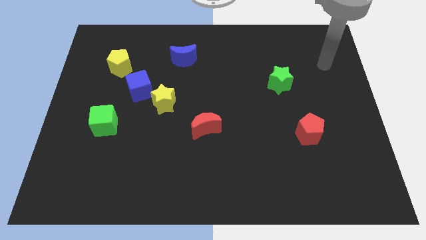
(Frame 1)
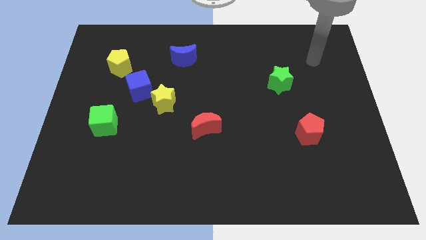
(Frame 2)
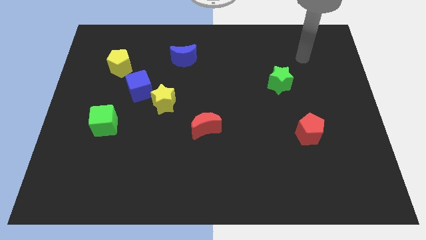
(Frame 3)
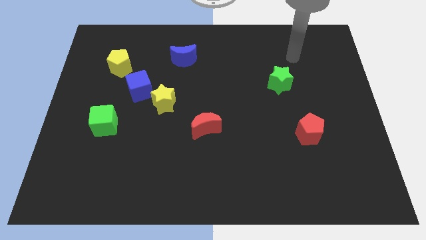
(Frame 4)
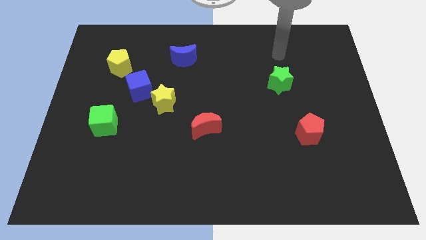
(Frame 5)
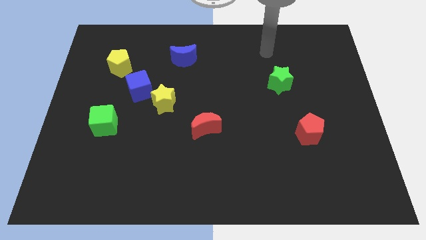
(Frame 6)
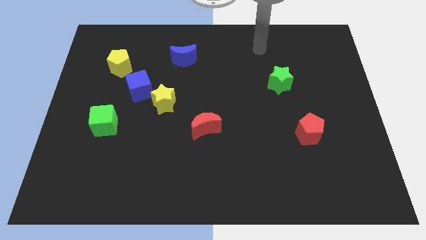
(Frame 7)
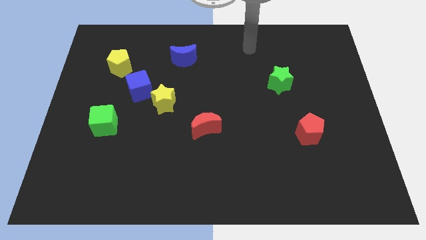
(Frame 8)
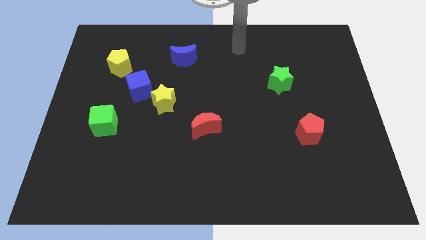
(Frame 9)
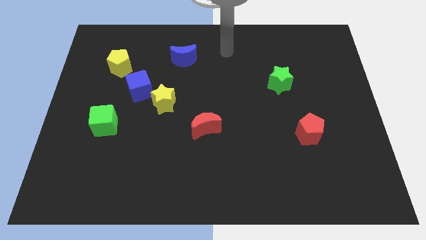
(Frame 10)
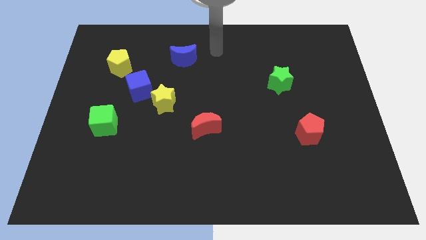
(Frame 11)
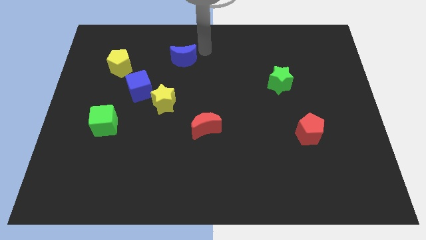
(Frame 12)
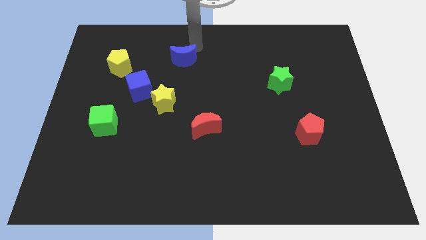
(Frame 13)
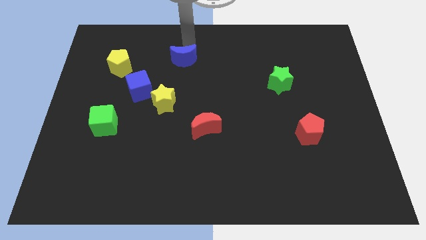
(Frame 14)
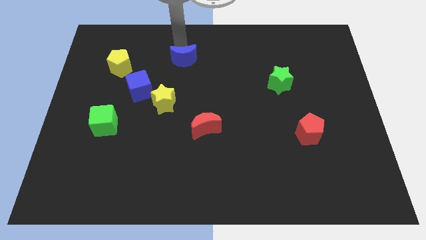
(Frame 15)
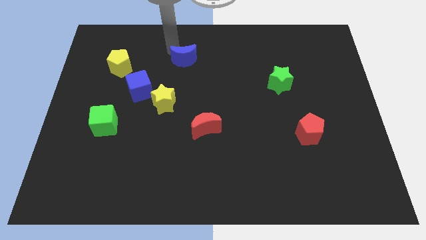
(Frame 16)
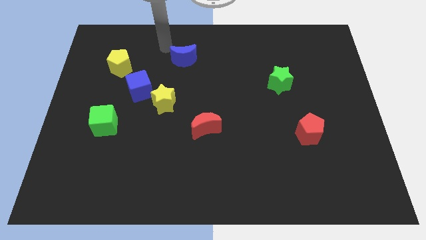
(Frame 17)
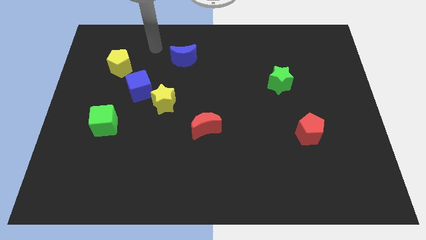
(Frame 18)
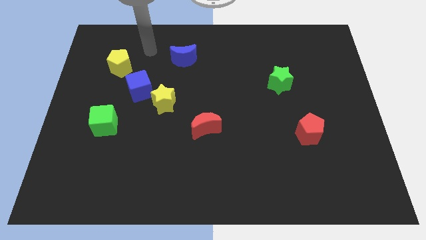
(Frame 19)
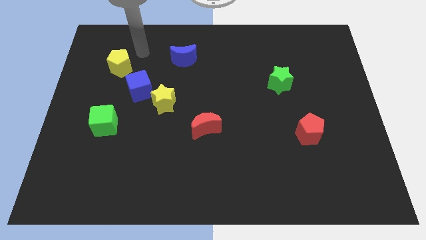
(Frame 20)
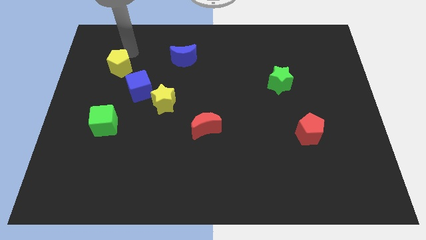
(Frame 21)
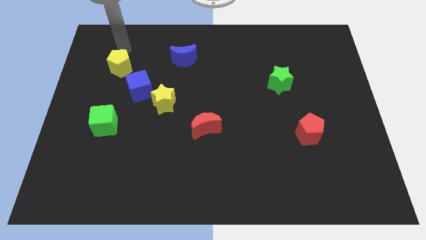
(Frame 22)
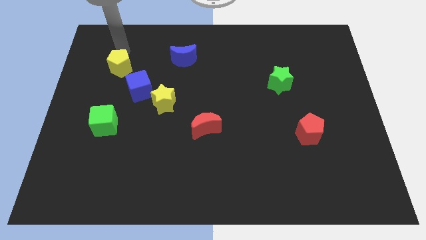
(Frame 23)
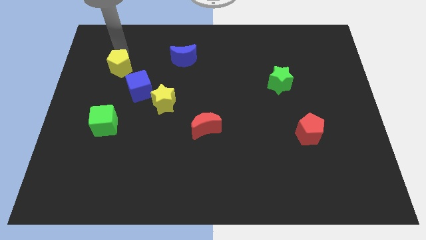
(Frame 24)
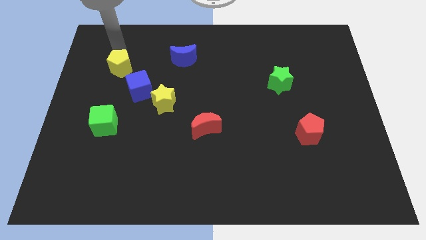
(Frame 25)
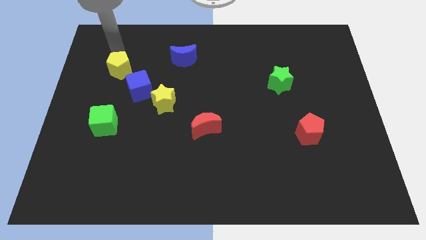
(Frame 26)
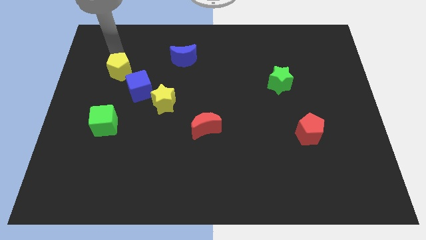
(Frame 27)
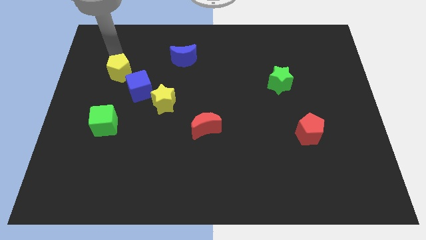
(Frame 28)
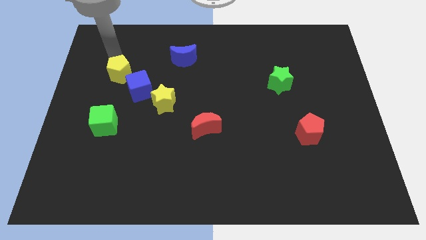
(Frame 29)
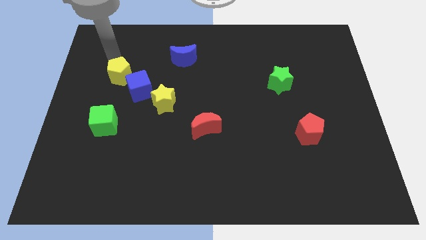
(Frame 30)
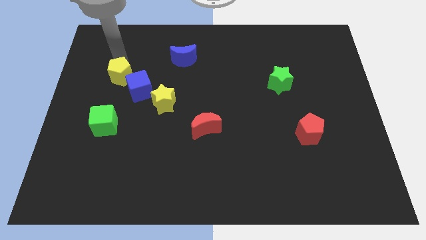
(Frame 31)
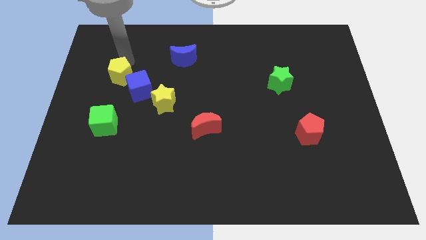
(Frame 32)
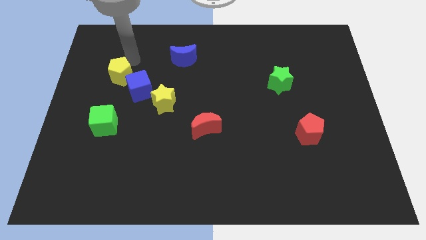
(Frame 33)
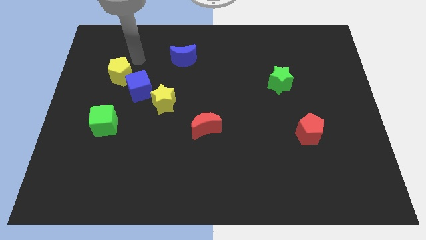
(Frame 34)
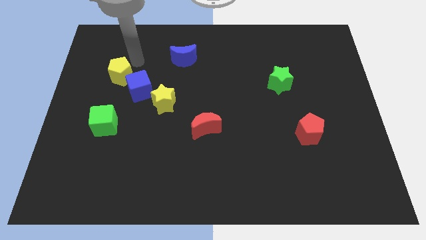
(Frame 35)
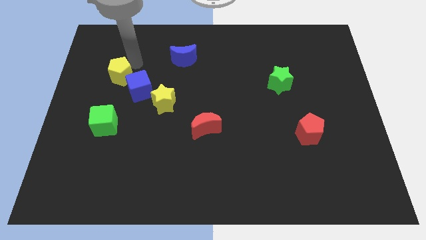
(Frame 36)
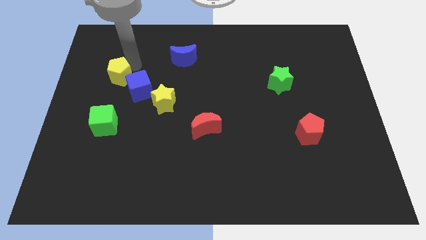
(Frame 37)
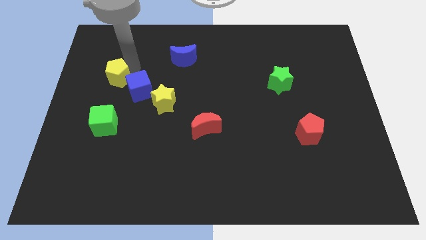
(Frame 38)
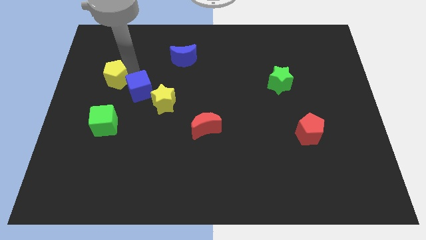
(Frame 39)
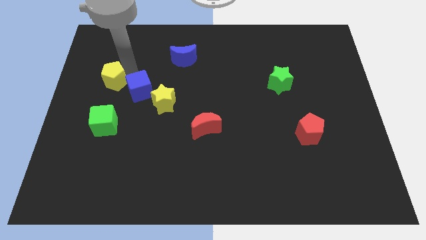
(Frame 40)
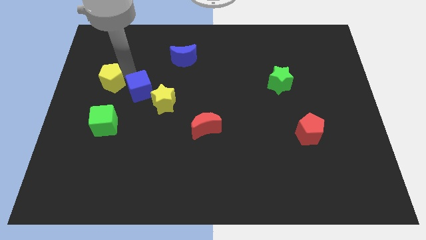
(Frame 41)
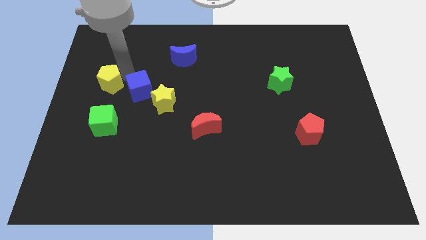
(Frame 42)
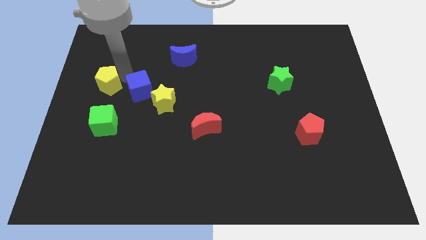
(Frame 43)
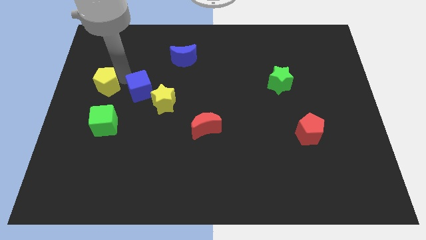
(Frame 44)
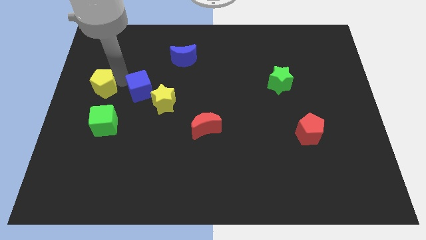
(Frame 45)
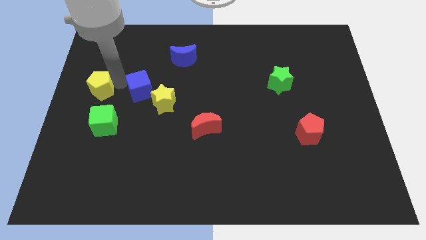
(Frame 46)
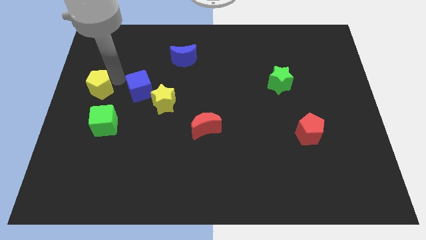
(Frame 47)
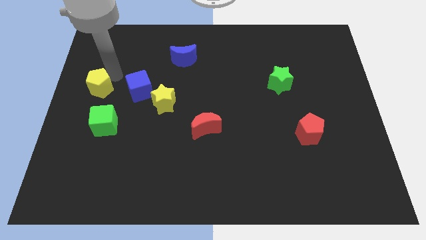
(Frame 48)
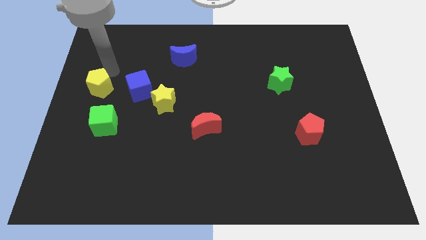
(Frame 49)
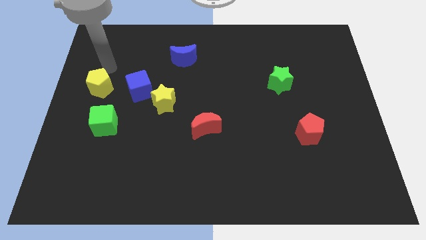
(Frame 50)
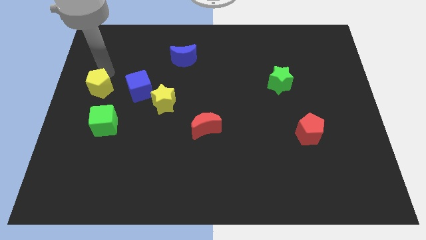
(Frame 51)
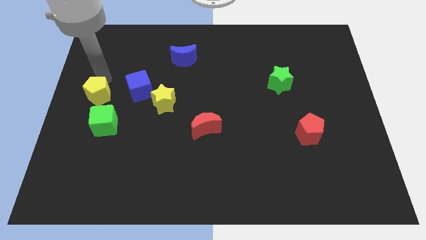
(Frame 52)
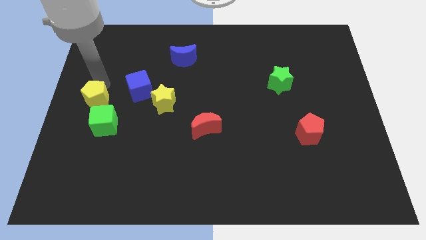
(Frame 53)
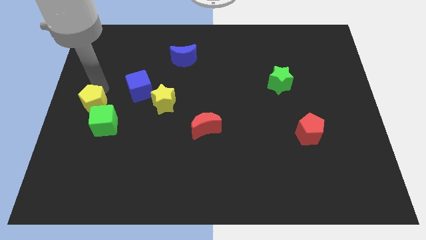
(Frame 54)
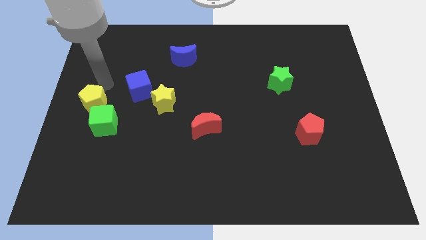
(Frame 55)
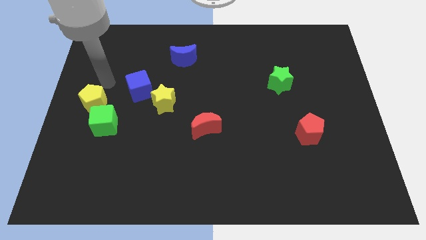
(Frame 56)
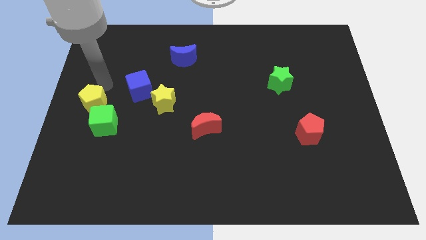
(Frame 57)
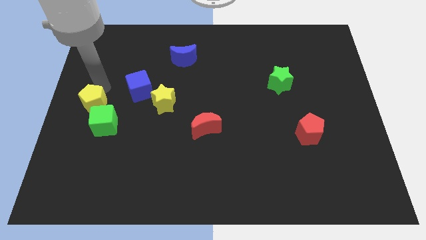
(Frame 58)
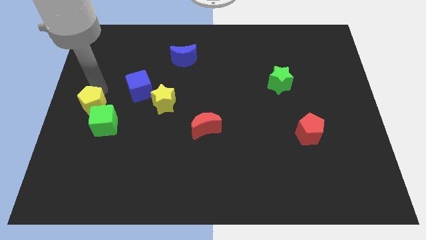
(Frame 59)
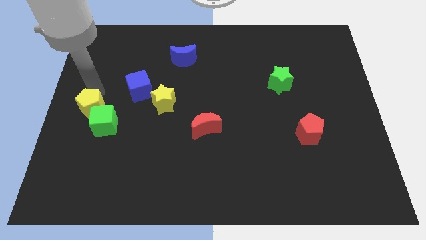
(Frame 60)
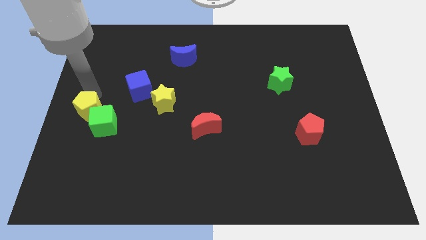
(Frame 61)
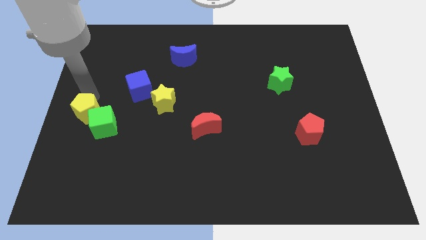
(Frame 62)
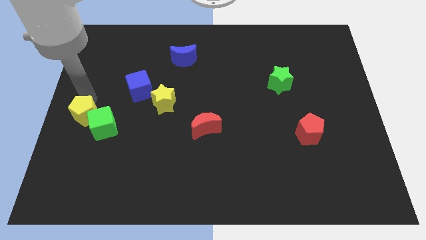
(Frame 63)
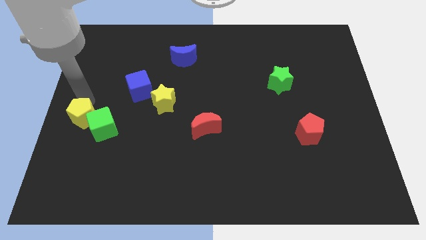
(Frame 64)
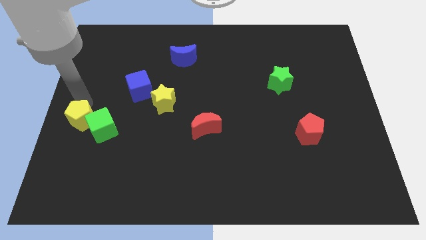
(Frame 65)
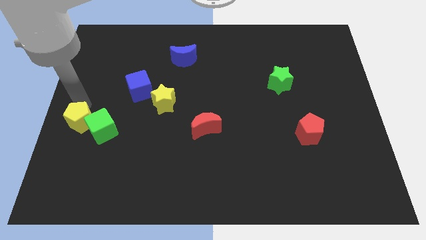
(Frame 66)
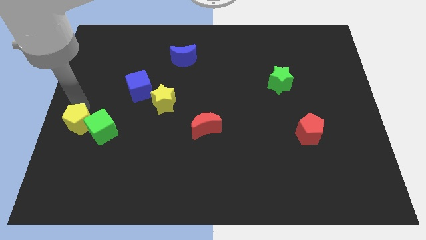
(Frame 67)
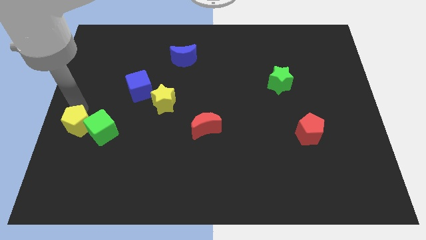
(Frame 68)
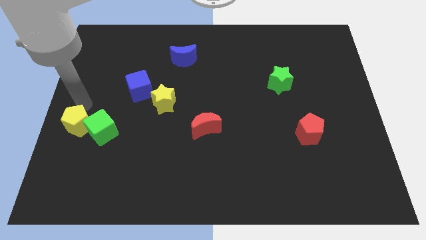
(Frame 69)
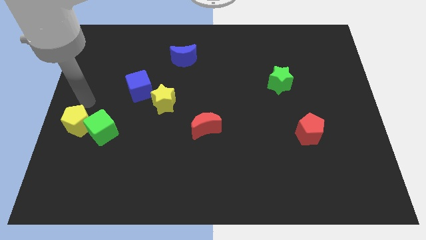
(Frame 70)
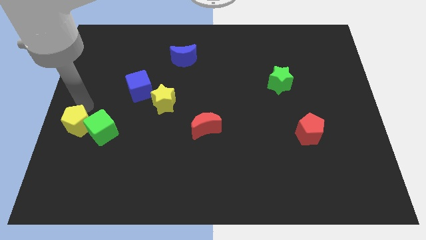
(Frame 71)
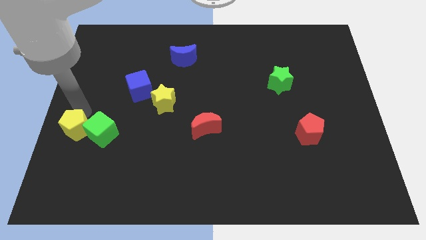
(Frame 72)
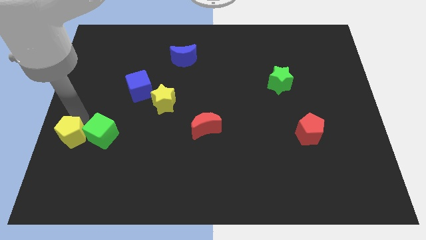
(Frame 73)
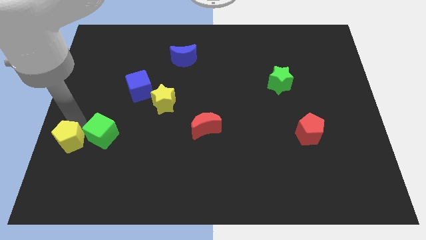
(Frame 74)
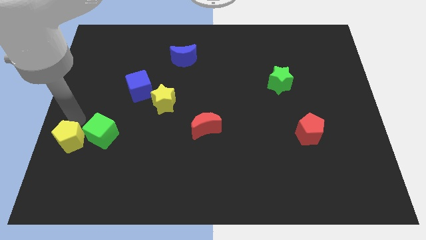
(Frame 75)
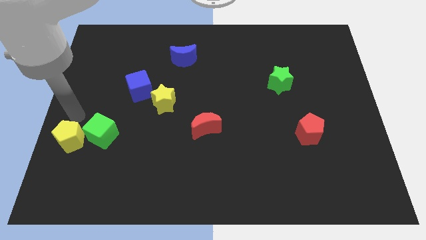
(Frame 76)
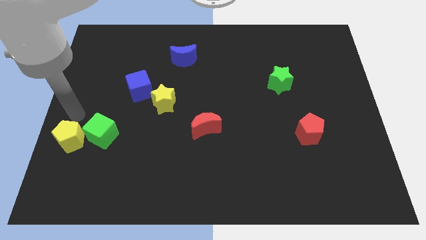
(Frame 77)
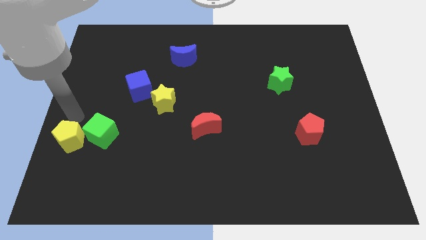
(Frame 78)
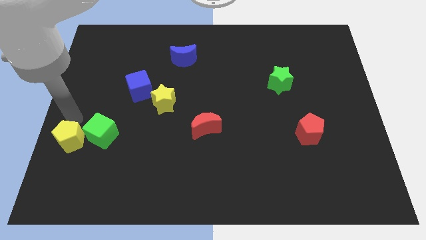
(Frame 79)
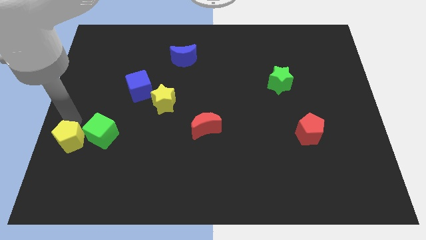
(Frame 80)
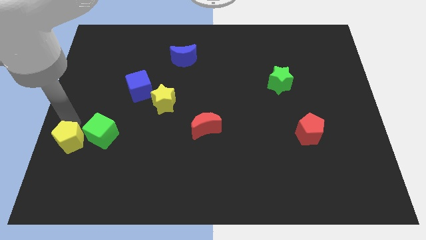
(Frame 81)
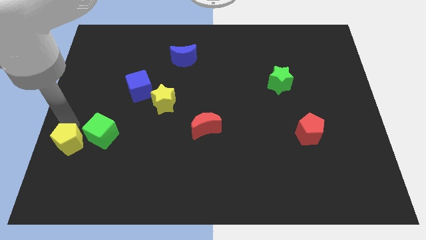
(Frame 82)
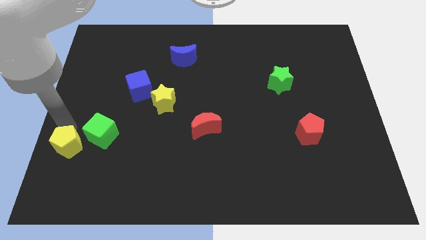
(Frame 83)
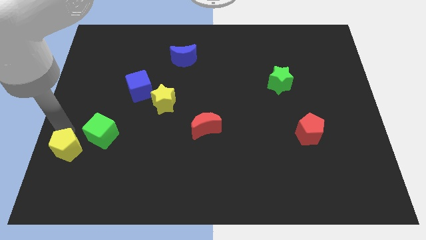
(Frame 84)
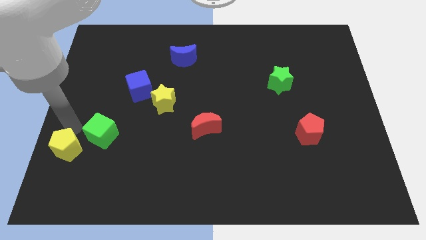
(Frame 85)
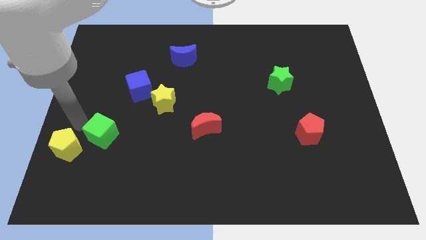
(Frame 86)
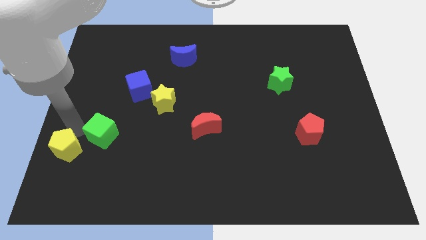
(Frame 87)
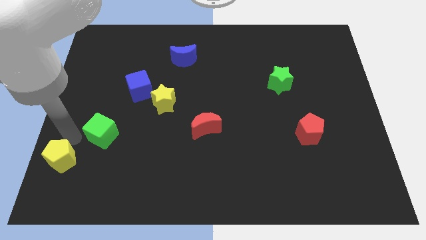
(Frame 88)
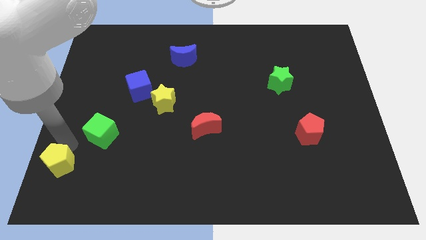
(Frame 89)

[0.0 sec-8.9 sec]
push the yellow pentagon to the lower left corner
